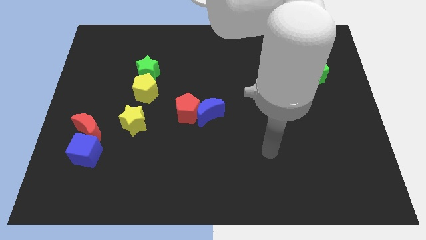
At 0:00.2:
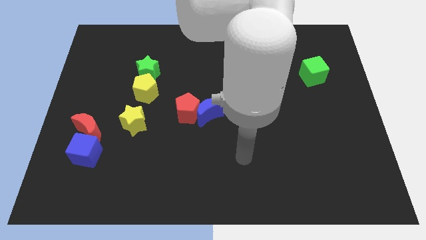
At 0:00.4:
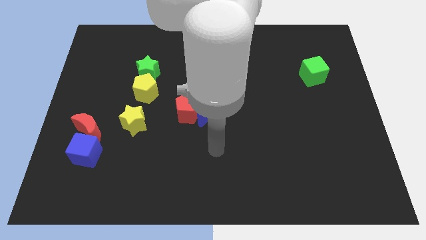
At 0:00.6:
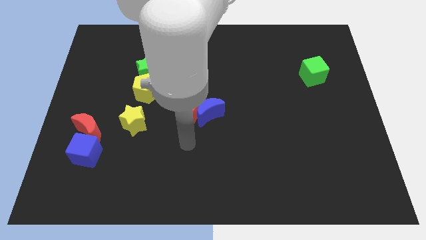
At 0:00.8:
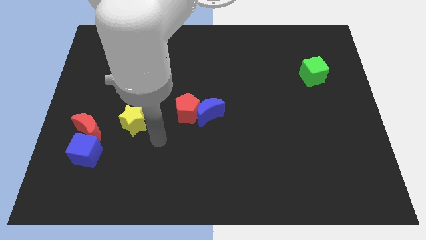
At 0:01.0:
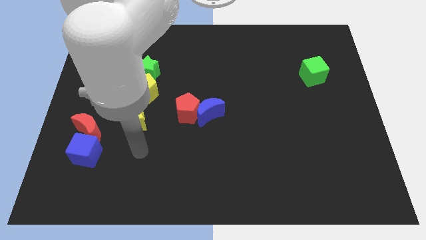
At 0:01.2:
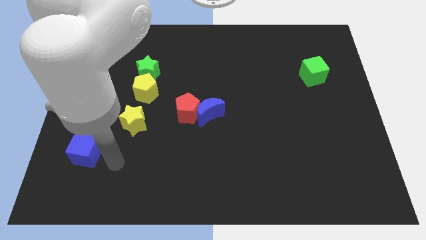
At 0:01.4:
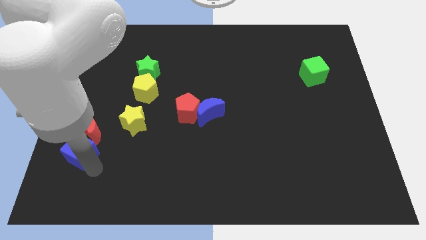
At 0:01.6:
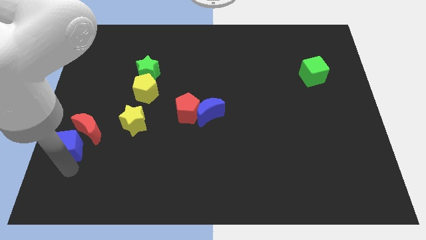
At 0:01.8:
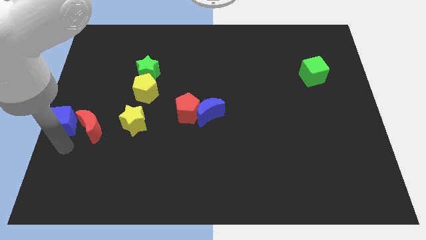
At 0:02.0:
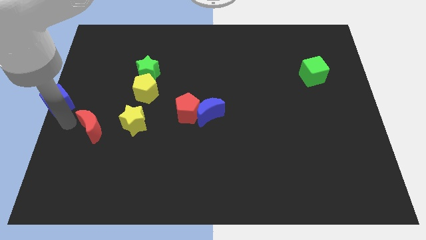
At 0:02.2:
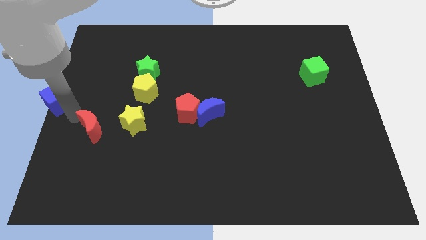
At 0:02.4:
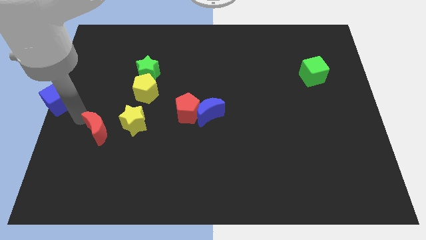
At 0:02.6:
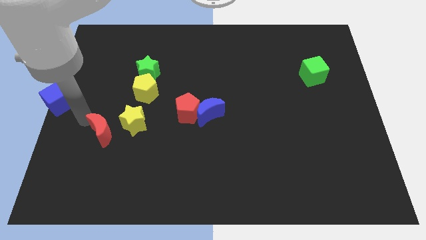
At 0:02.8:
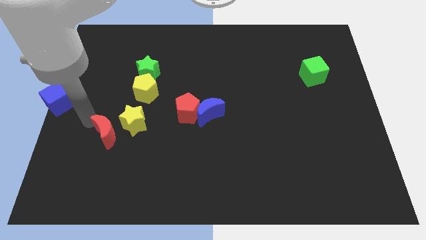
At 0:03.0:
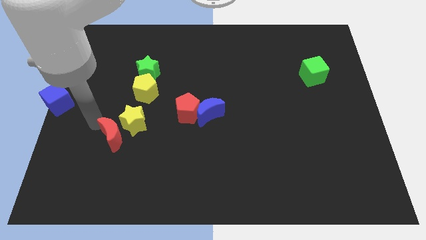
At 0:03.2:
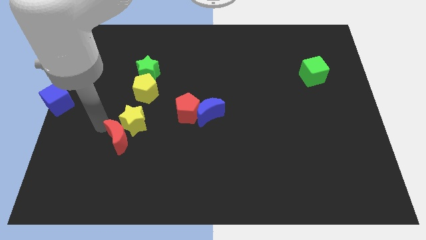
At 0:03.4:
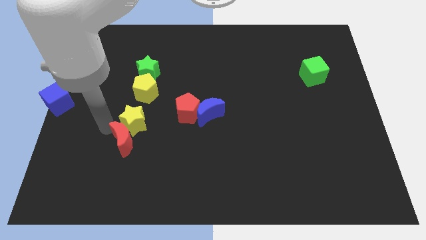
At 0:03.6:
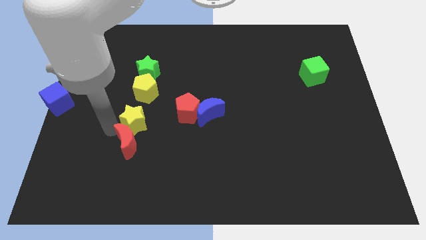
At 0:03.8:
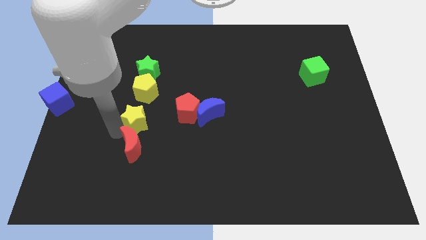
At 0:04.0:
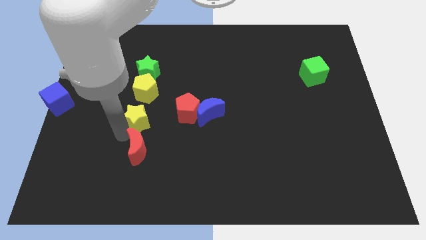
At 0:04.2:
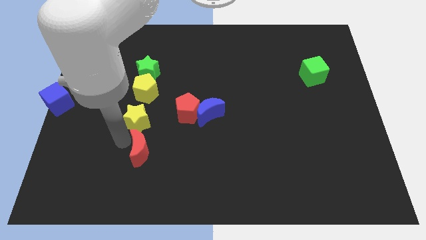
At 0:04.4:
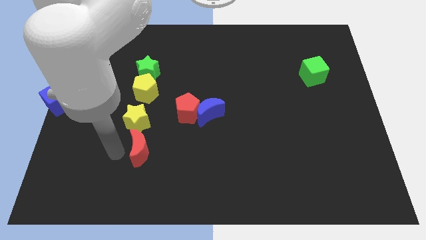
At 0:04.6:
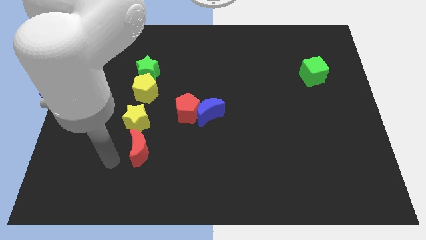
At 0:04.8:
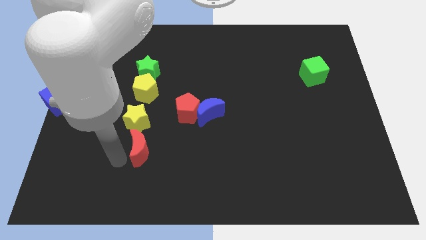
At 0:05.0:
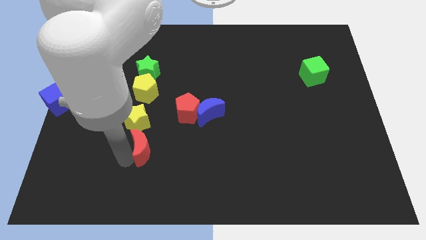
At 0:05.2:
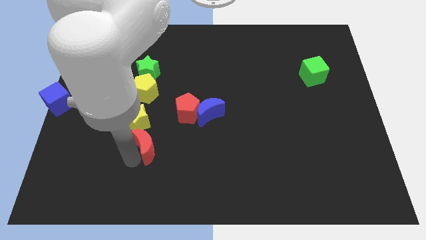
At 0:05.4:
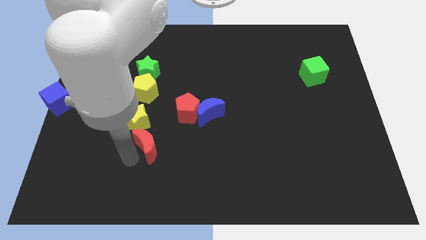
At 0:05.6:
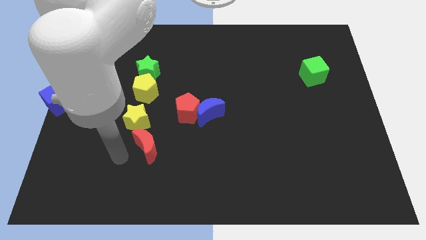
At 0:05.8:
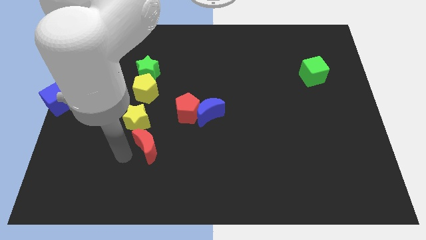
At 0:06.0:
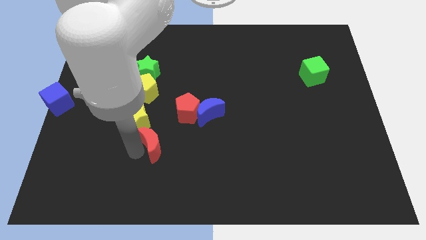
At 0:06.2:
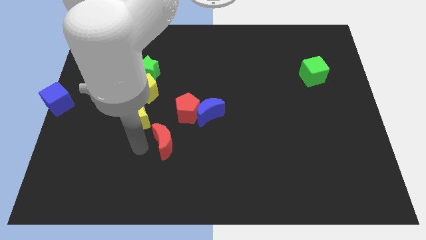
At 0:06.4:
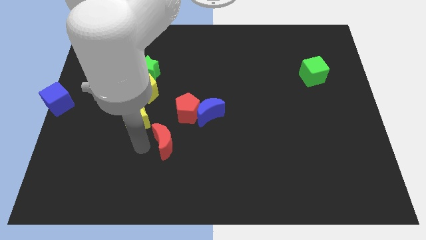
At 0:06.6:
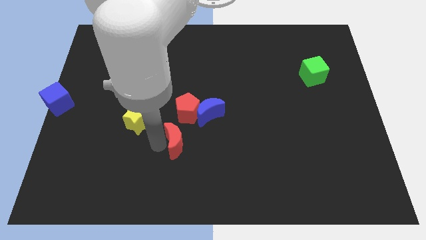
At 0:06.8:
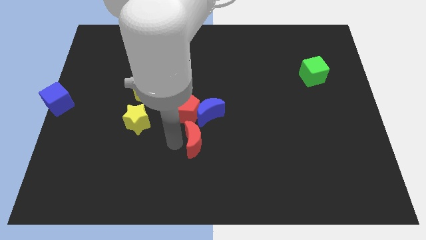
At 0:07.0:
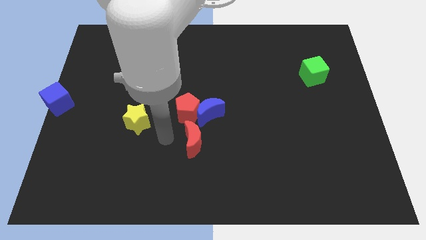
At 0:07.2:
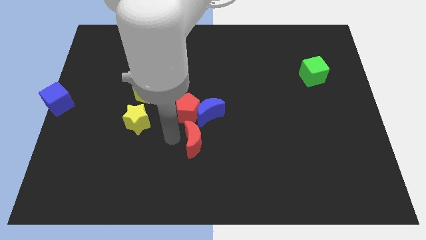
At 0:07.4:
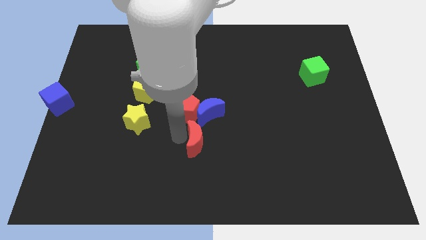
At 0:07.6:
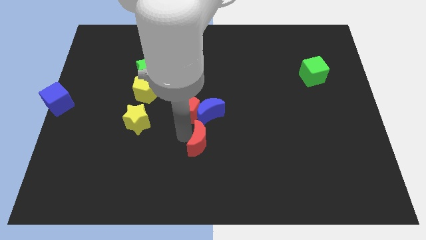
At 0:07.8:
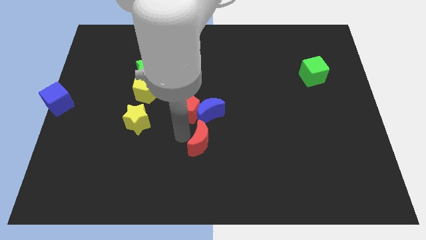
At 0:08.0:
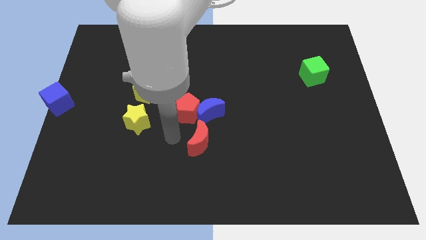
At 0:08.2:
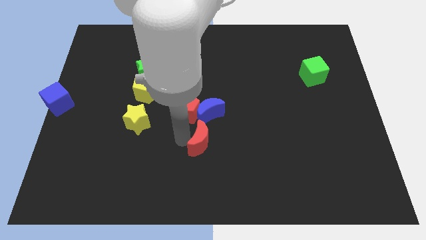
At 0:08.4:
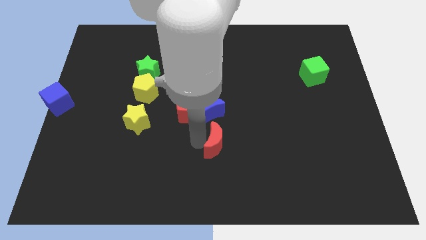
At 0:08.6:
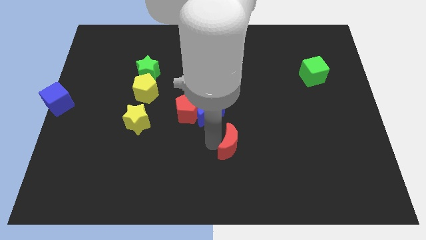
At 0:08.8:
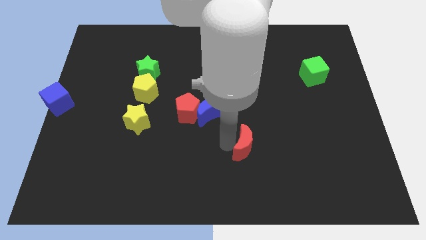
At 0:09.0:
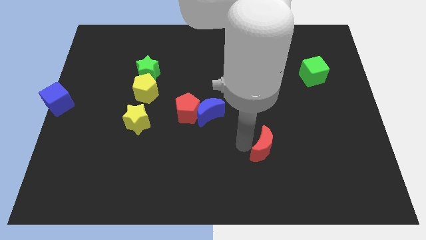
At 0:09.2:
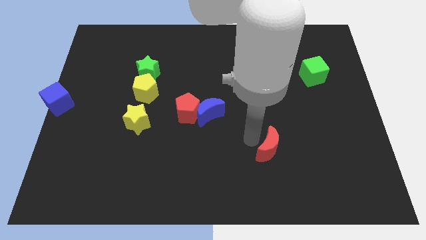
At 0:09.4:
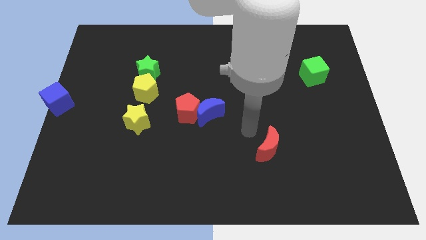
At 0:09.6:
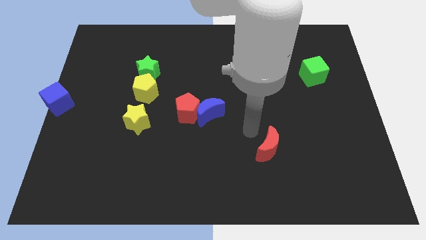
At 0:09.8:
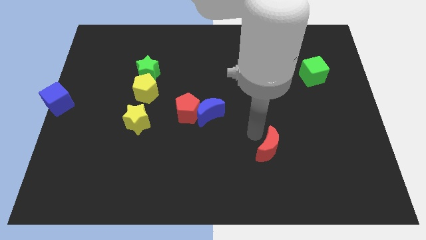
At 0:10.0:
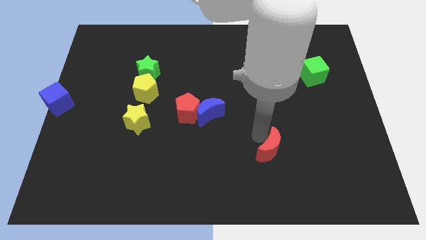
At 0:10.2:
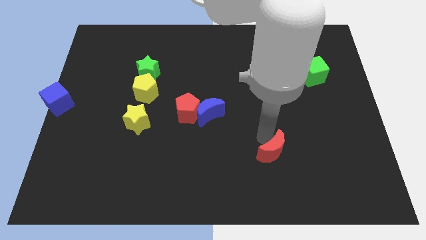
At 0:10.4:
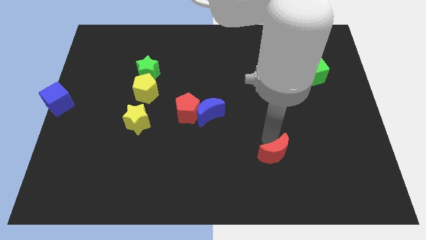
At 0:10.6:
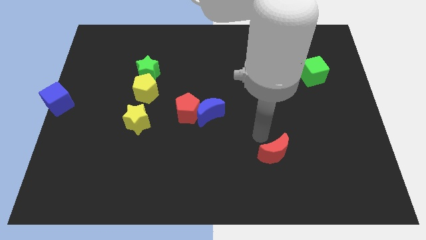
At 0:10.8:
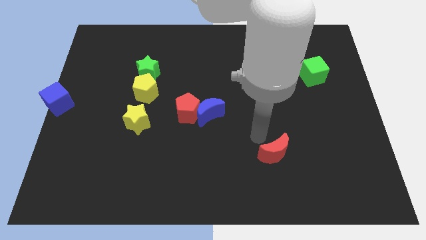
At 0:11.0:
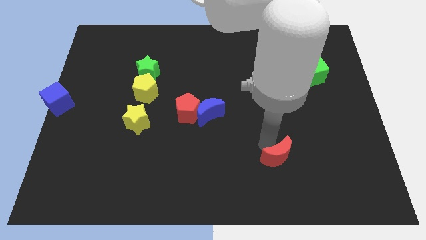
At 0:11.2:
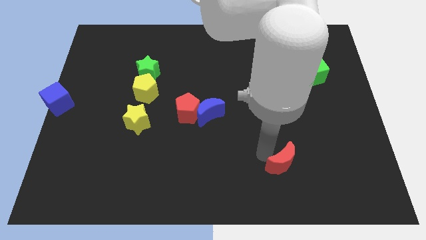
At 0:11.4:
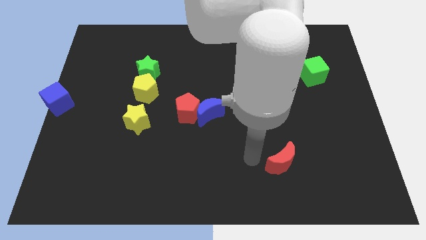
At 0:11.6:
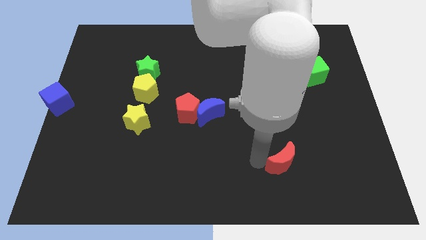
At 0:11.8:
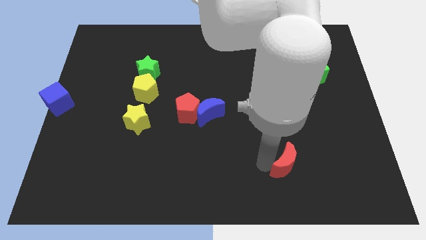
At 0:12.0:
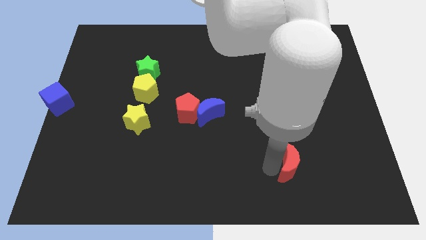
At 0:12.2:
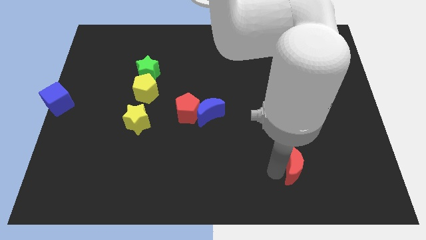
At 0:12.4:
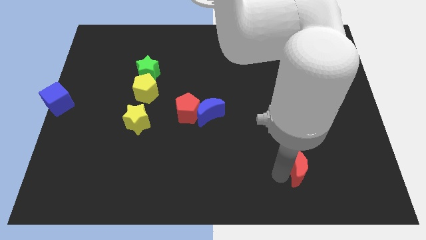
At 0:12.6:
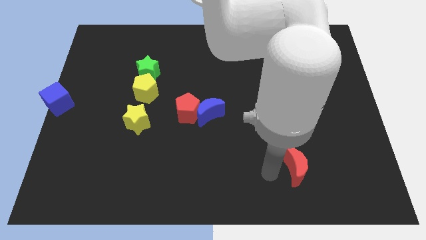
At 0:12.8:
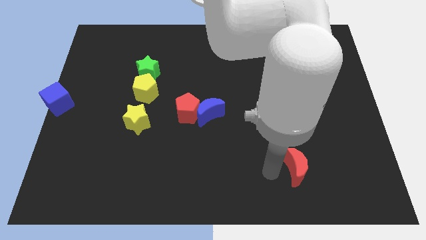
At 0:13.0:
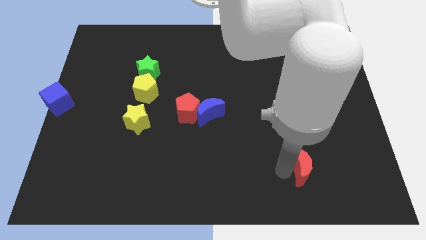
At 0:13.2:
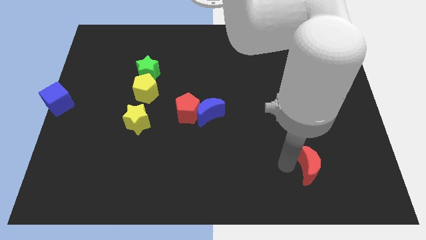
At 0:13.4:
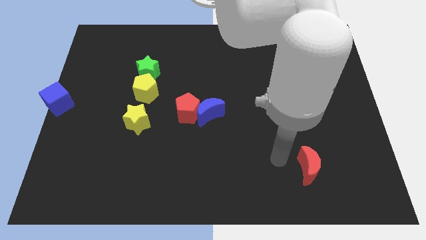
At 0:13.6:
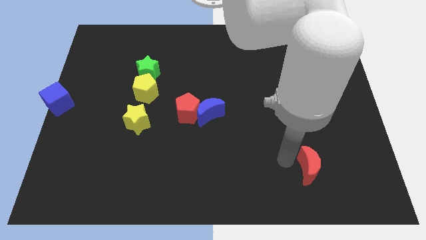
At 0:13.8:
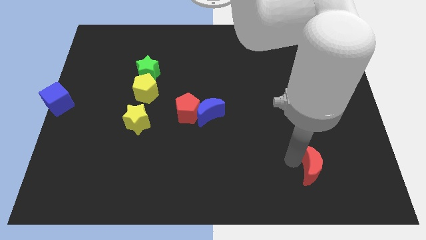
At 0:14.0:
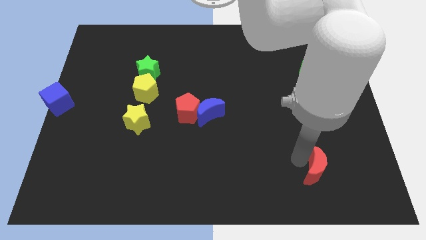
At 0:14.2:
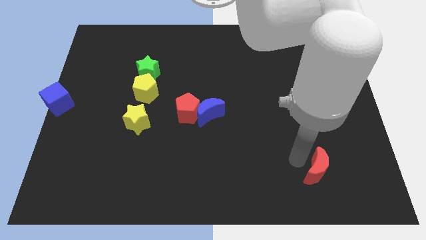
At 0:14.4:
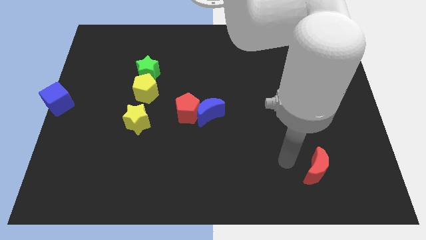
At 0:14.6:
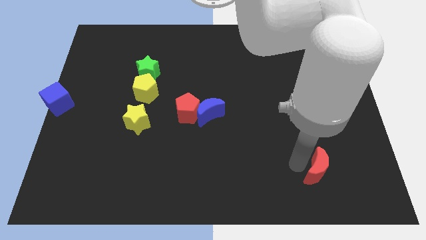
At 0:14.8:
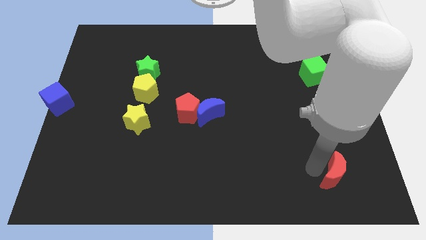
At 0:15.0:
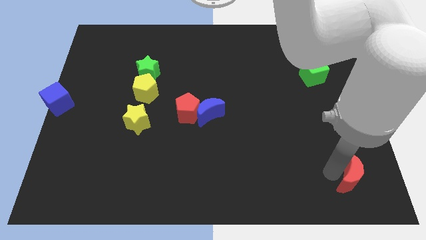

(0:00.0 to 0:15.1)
slide the red moon to the lower right corner
